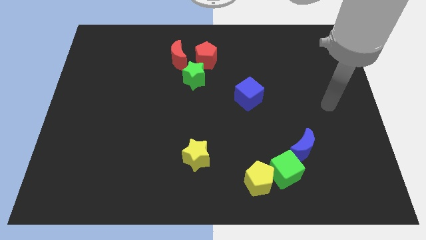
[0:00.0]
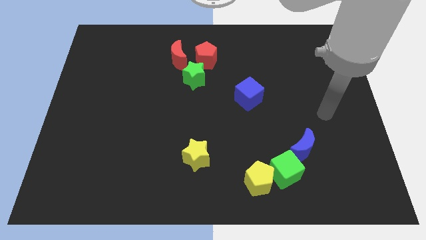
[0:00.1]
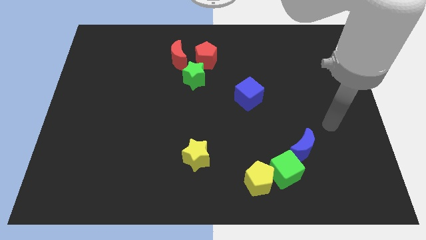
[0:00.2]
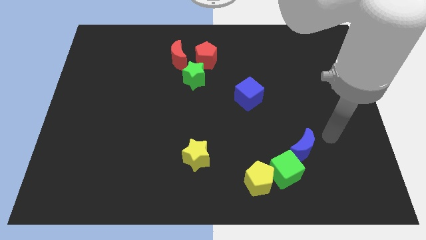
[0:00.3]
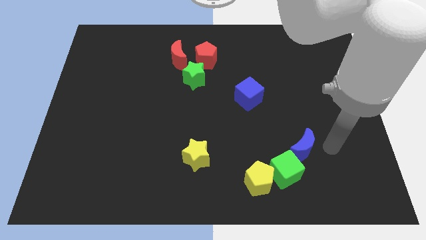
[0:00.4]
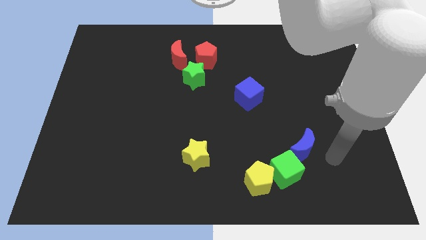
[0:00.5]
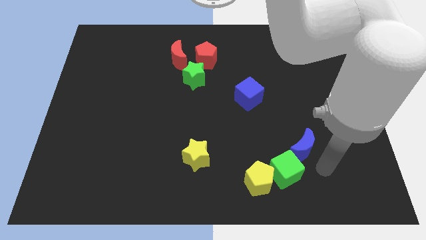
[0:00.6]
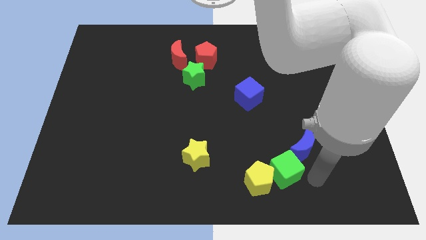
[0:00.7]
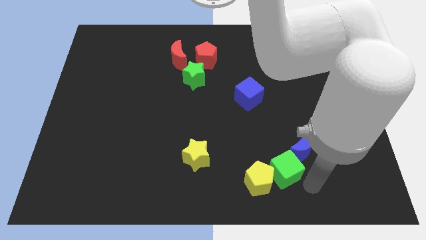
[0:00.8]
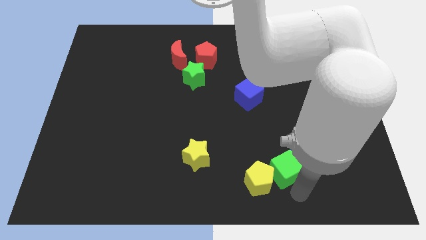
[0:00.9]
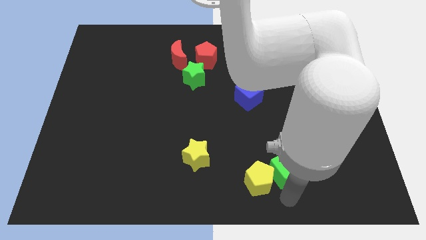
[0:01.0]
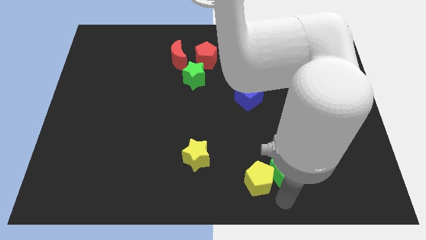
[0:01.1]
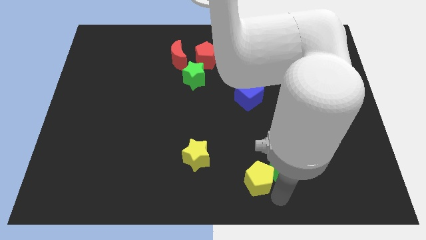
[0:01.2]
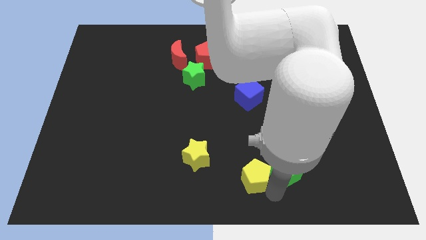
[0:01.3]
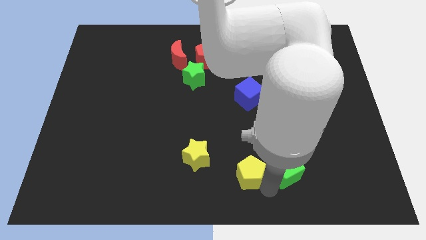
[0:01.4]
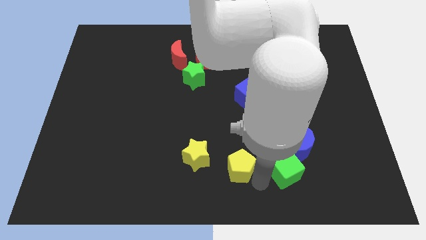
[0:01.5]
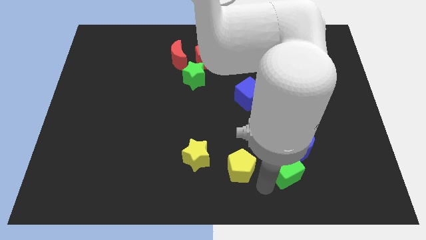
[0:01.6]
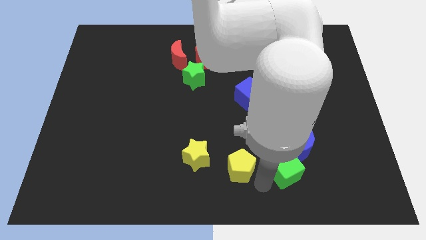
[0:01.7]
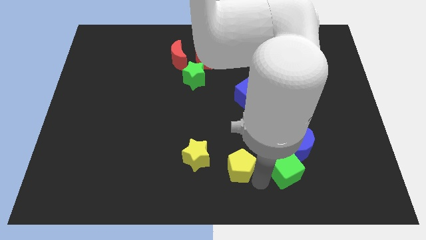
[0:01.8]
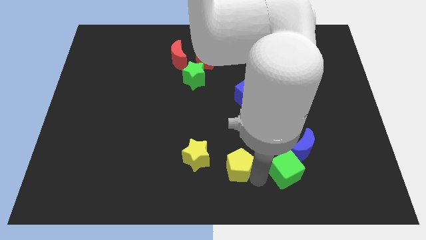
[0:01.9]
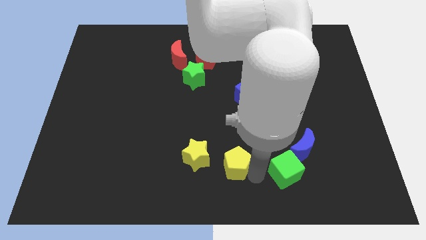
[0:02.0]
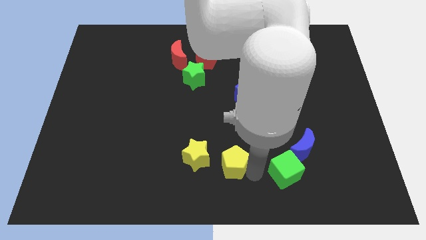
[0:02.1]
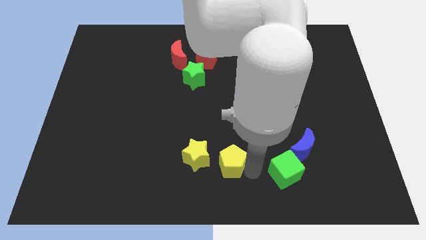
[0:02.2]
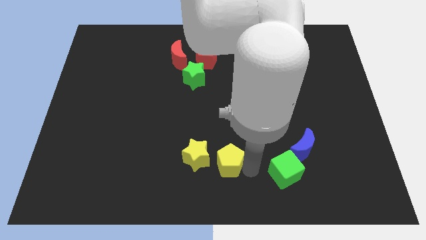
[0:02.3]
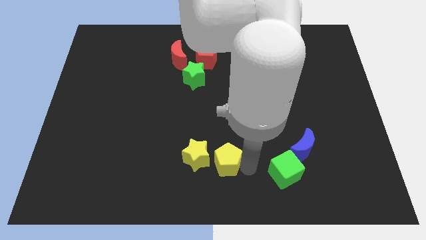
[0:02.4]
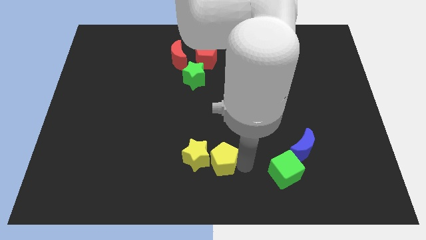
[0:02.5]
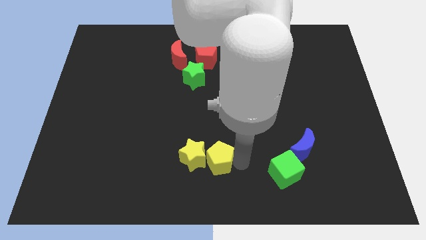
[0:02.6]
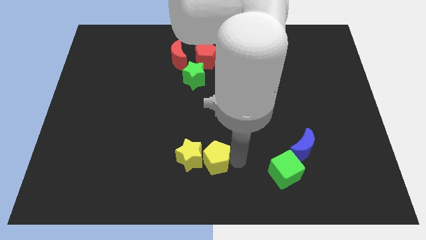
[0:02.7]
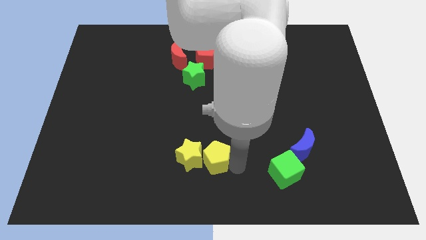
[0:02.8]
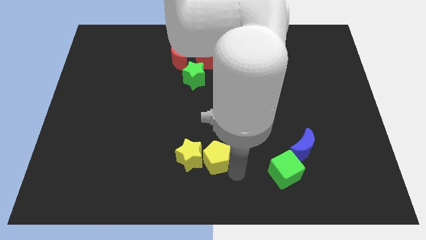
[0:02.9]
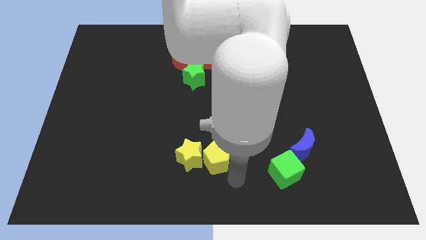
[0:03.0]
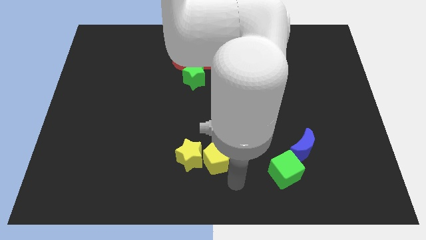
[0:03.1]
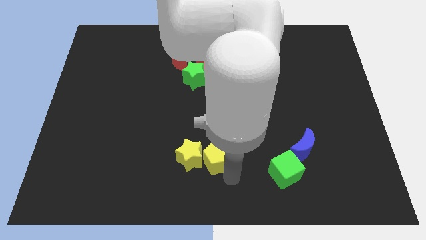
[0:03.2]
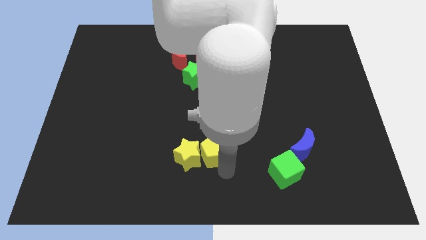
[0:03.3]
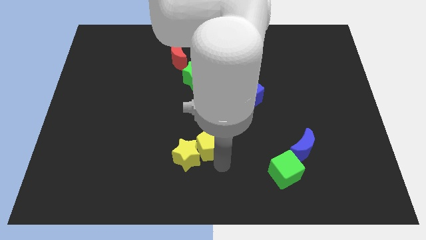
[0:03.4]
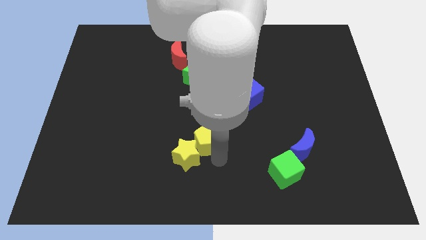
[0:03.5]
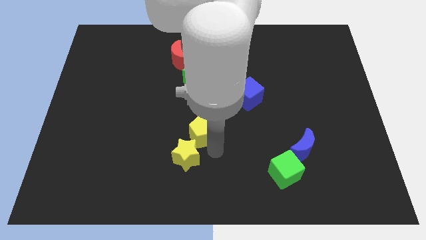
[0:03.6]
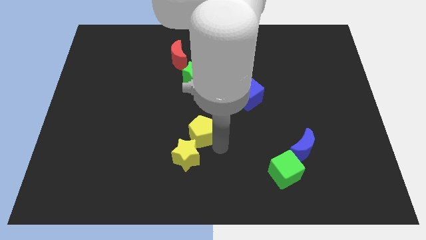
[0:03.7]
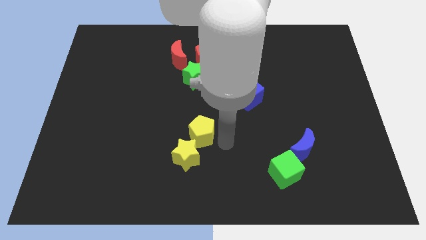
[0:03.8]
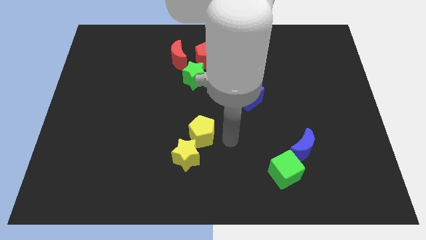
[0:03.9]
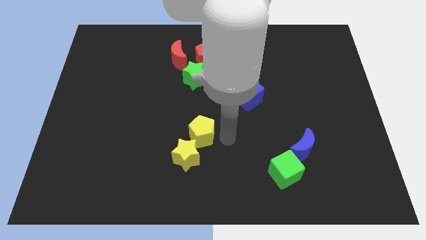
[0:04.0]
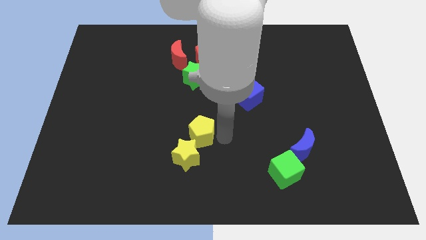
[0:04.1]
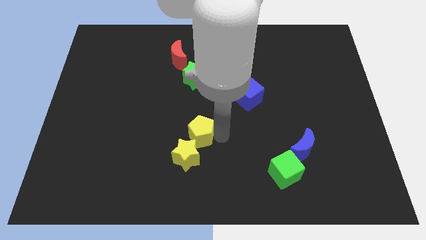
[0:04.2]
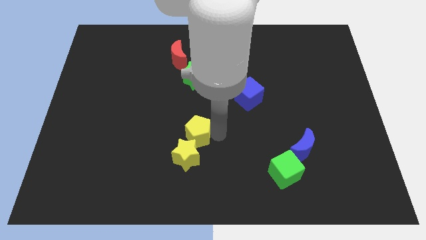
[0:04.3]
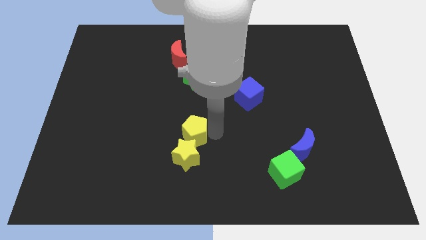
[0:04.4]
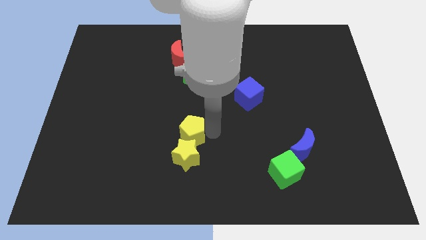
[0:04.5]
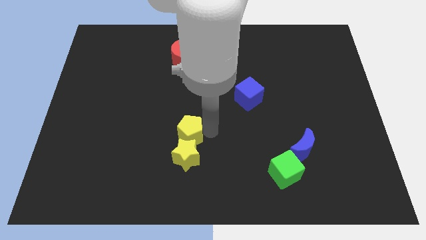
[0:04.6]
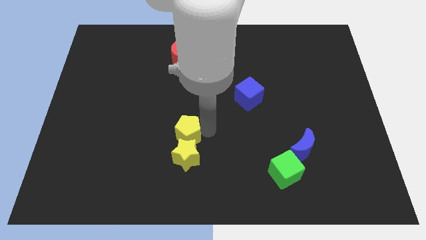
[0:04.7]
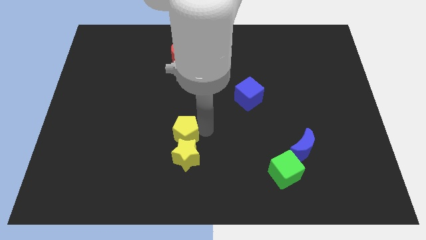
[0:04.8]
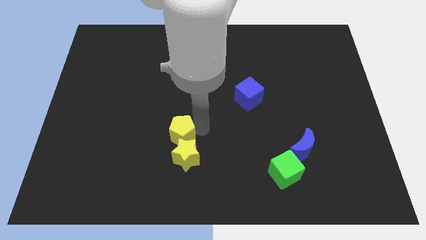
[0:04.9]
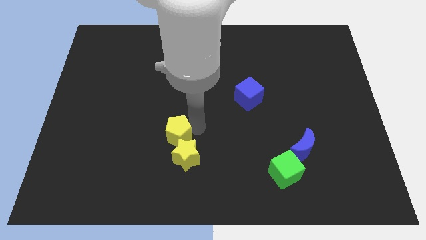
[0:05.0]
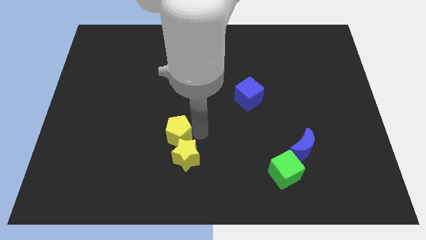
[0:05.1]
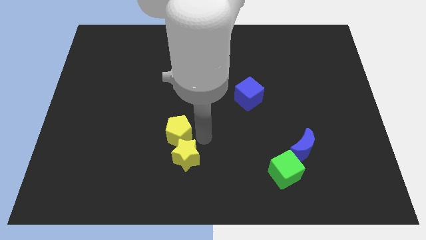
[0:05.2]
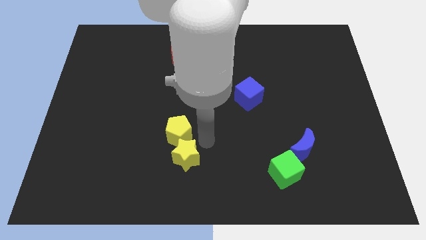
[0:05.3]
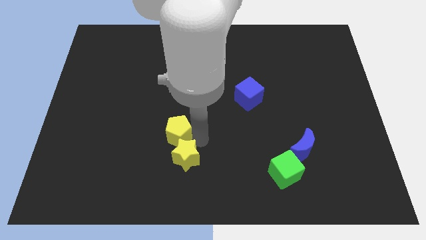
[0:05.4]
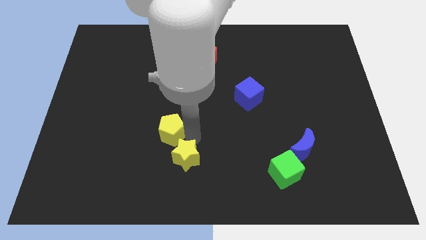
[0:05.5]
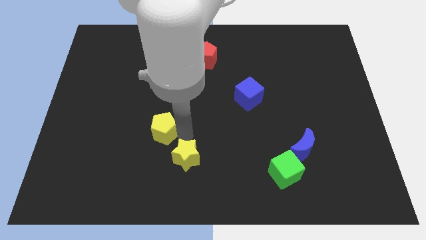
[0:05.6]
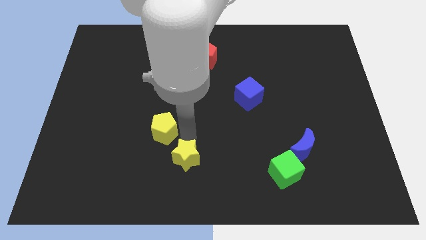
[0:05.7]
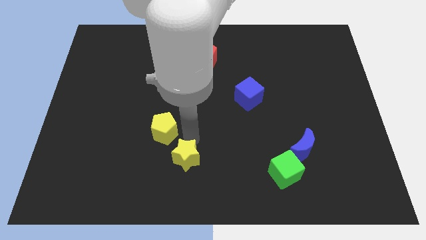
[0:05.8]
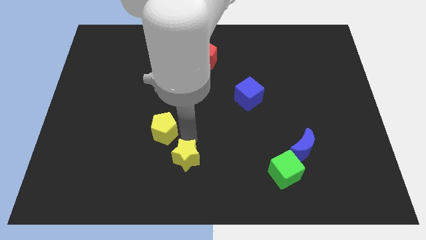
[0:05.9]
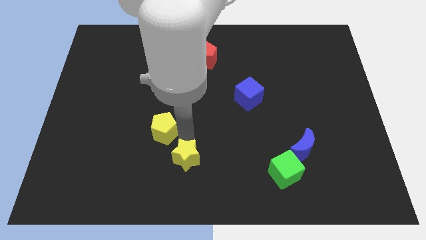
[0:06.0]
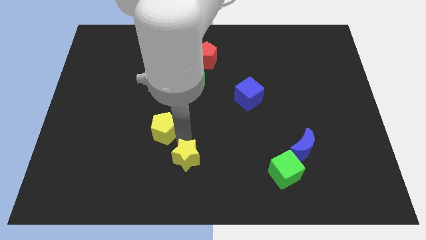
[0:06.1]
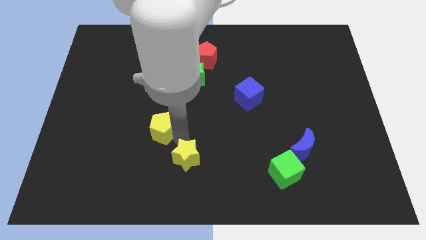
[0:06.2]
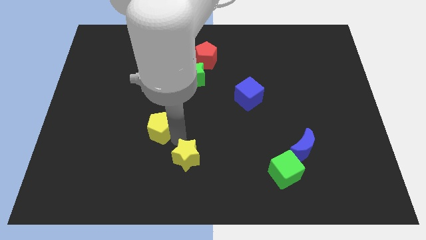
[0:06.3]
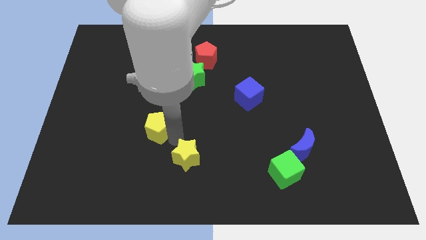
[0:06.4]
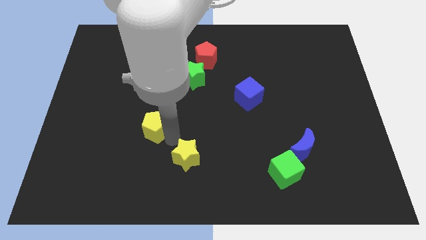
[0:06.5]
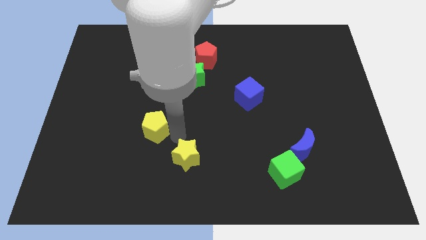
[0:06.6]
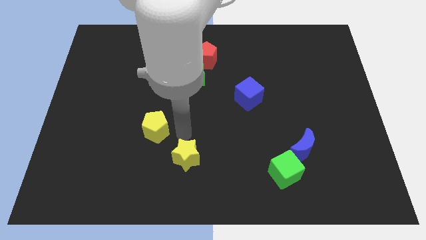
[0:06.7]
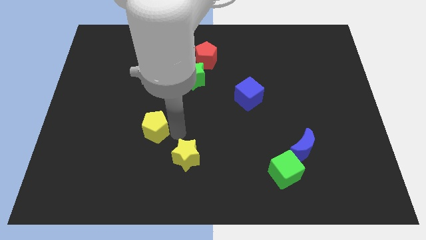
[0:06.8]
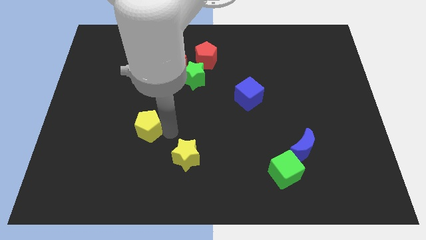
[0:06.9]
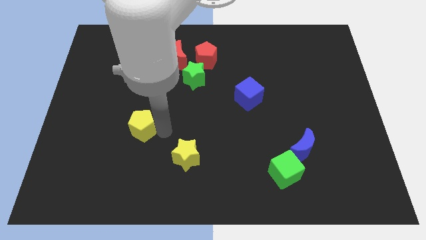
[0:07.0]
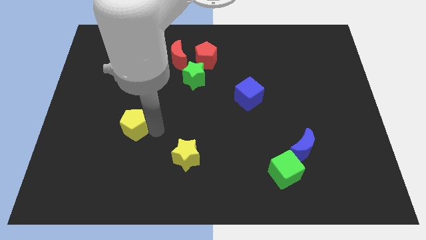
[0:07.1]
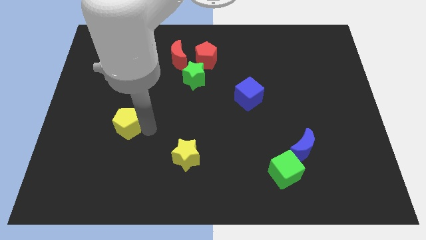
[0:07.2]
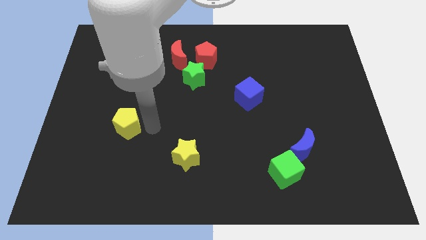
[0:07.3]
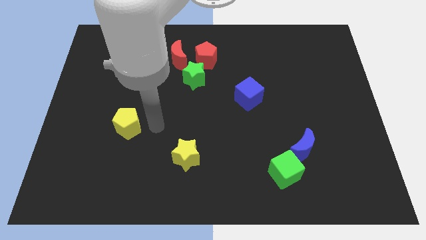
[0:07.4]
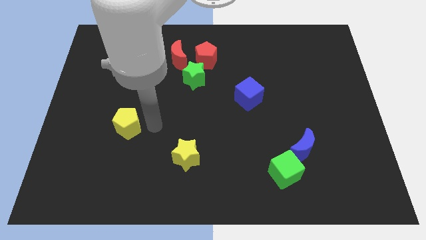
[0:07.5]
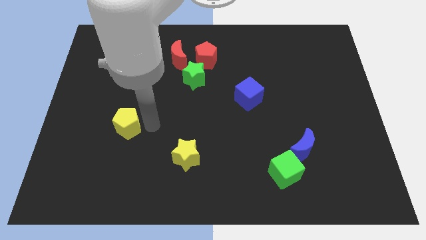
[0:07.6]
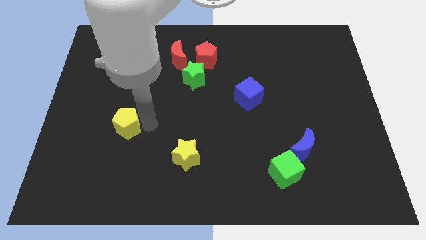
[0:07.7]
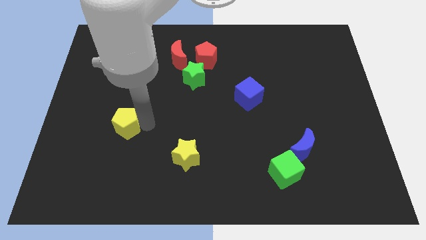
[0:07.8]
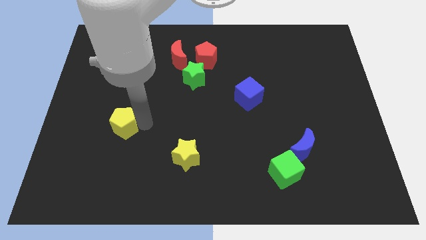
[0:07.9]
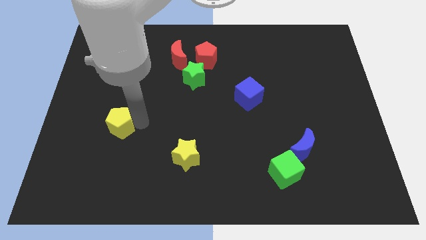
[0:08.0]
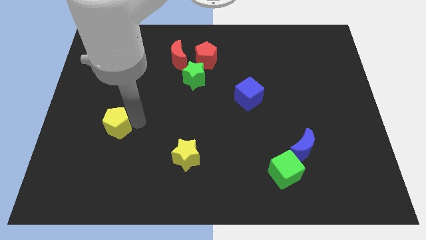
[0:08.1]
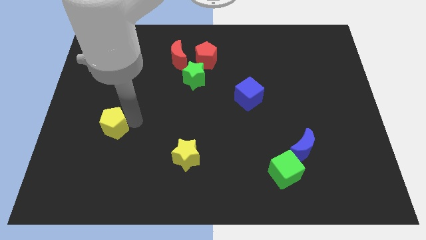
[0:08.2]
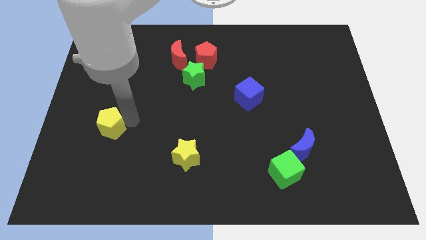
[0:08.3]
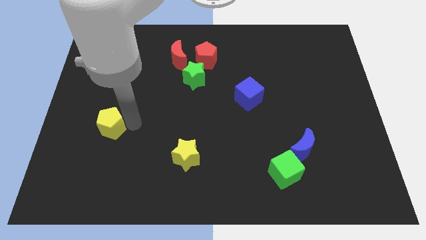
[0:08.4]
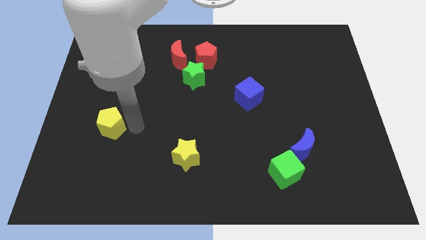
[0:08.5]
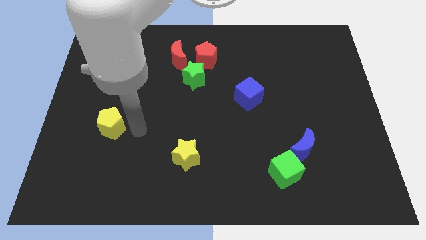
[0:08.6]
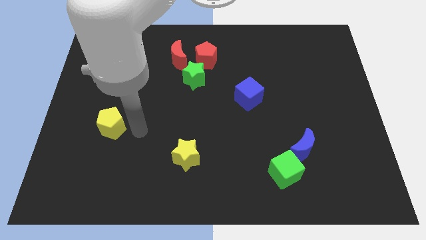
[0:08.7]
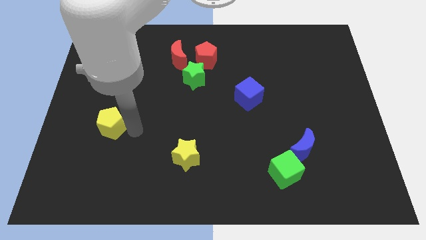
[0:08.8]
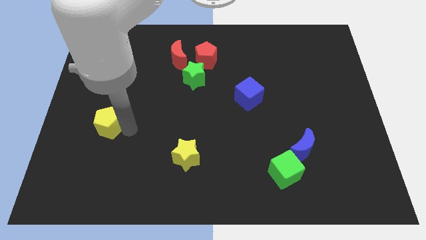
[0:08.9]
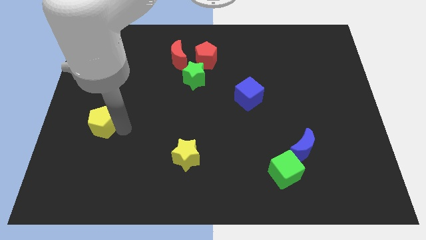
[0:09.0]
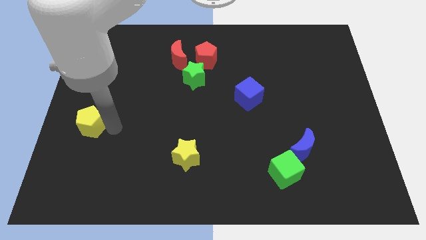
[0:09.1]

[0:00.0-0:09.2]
slide the yellow pentagon to the center left
